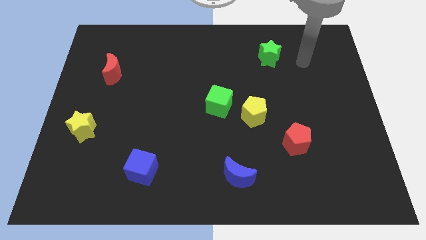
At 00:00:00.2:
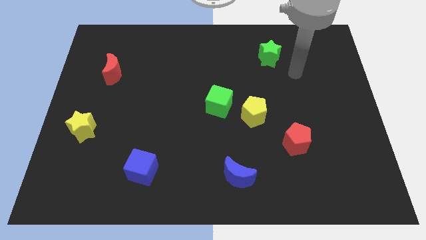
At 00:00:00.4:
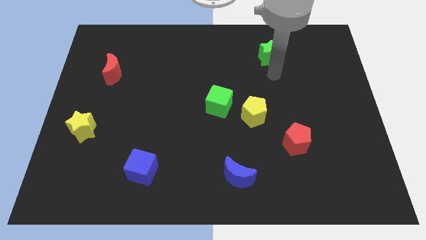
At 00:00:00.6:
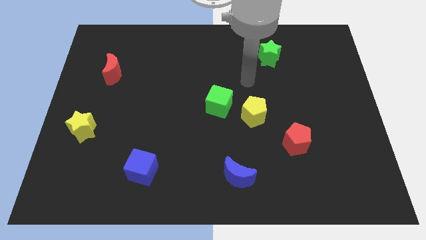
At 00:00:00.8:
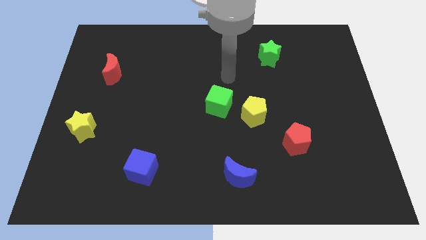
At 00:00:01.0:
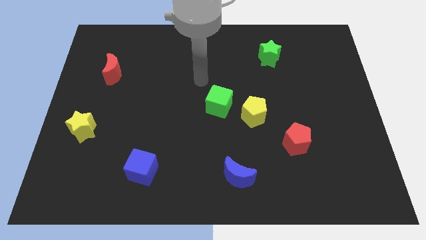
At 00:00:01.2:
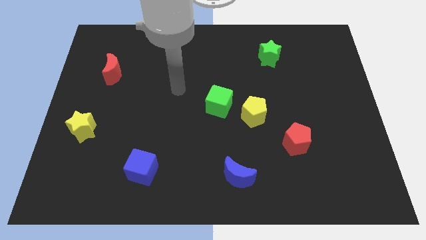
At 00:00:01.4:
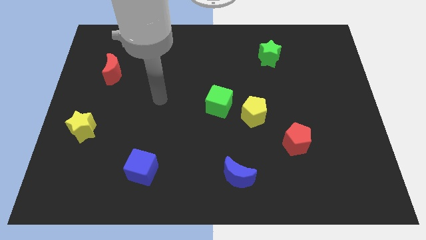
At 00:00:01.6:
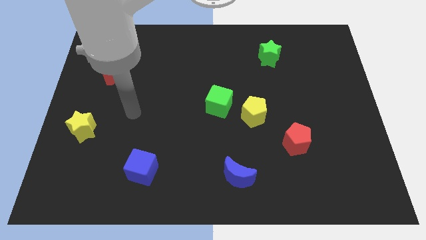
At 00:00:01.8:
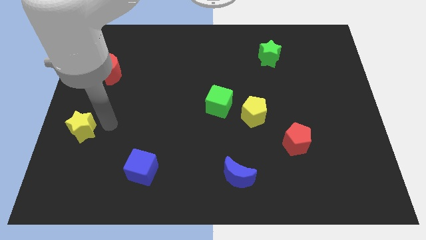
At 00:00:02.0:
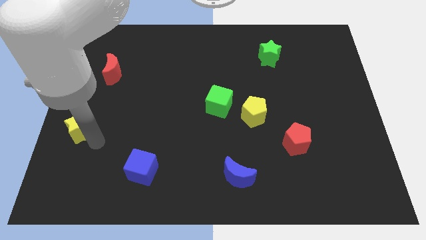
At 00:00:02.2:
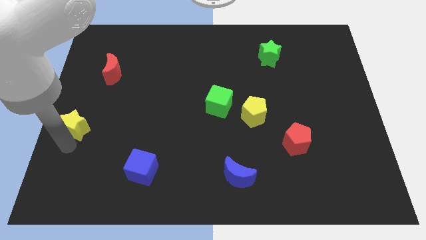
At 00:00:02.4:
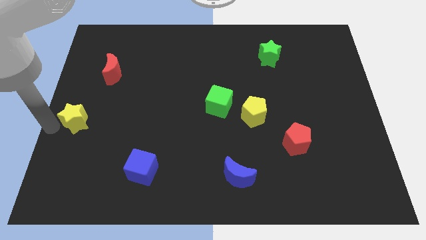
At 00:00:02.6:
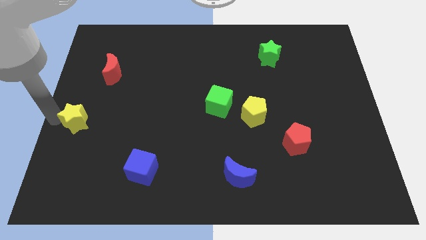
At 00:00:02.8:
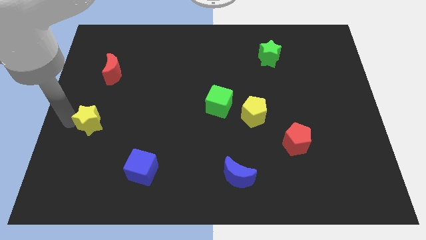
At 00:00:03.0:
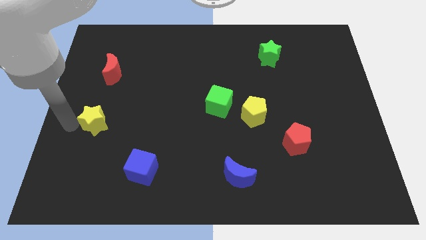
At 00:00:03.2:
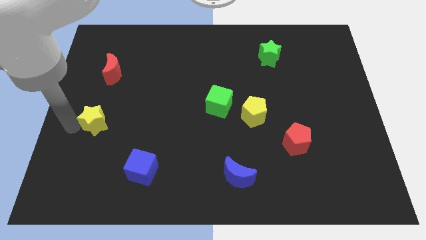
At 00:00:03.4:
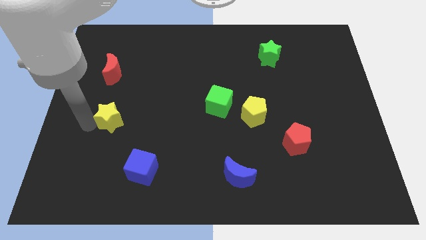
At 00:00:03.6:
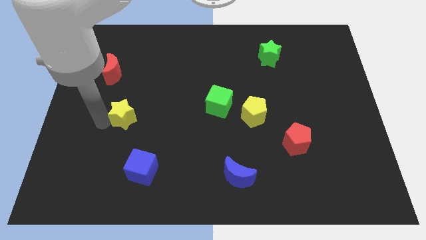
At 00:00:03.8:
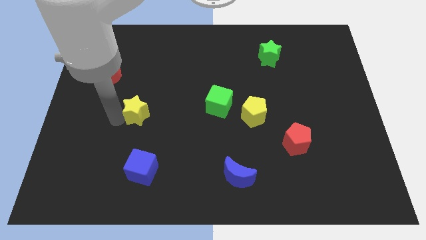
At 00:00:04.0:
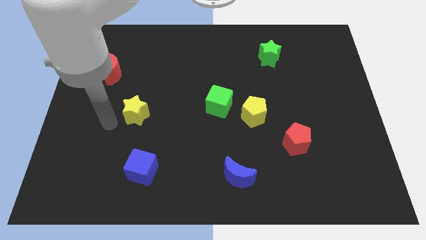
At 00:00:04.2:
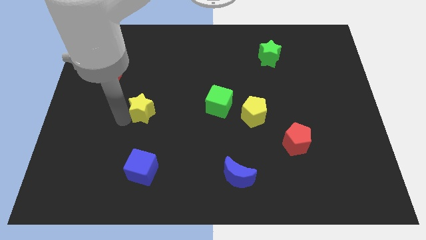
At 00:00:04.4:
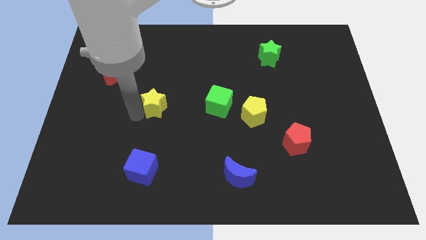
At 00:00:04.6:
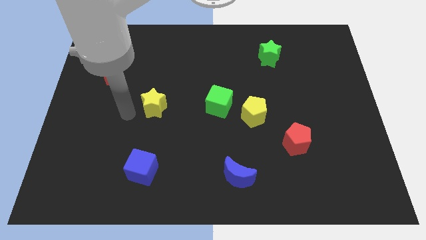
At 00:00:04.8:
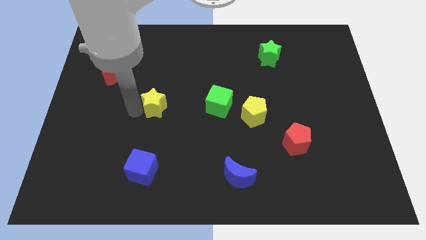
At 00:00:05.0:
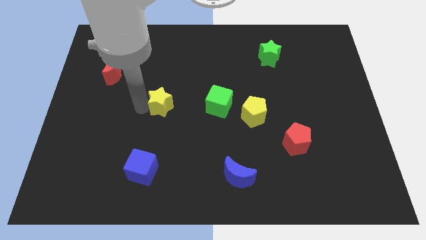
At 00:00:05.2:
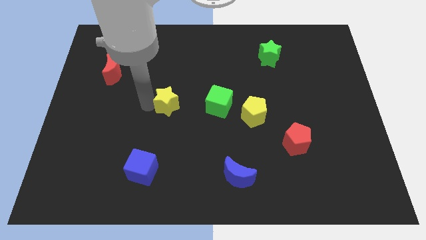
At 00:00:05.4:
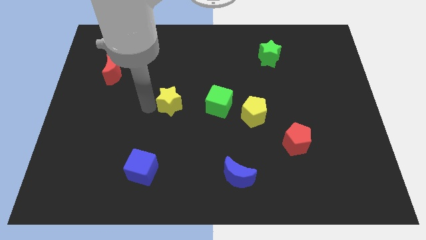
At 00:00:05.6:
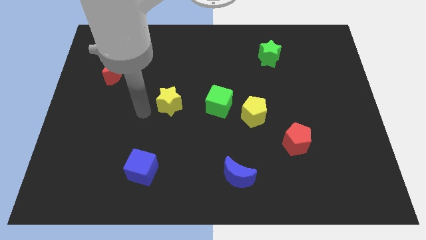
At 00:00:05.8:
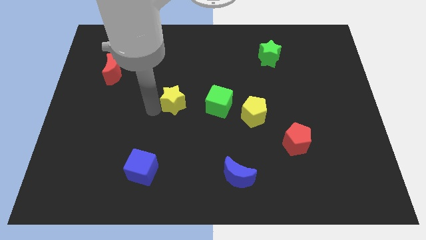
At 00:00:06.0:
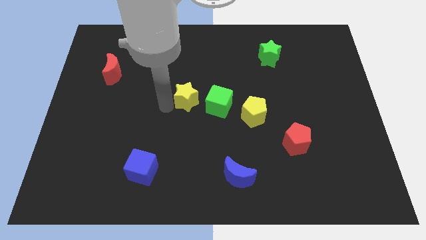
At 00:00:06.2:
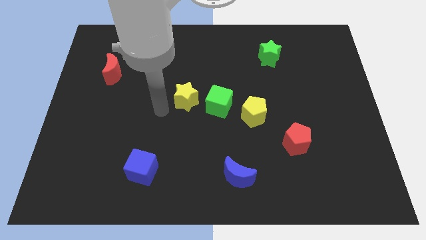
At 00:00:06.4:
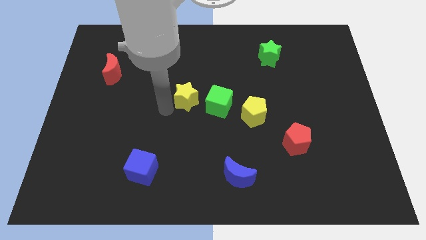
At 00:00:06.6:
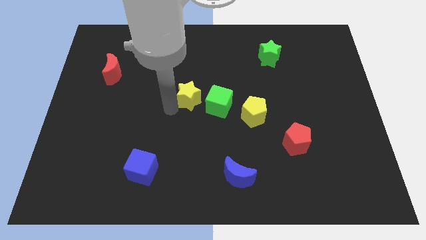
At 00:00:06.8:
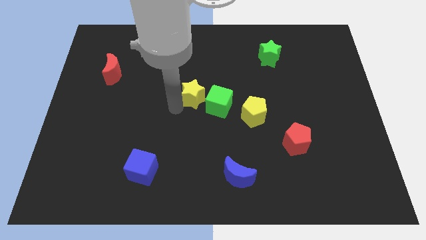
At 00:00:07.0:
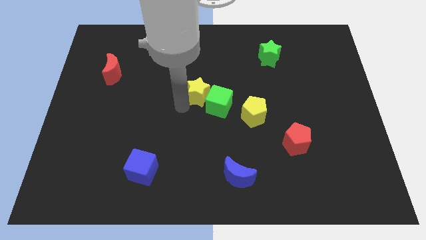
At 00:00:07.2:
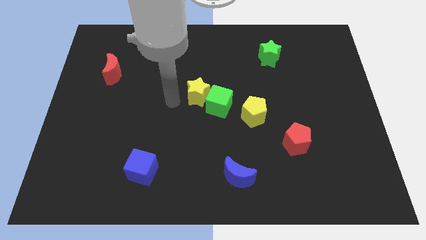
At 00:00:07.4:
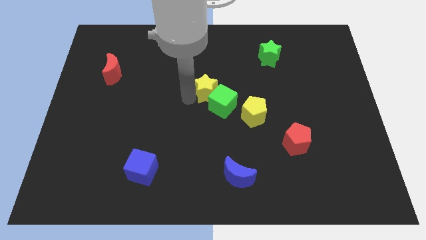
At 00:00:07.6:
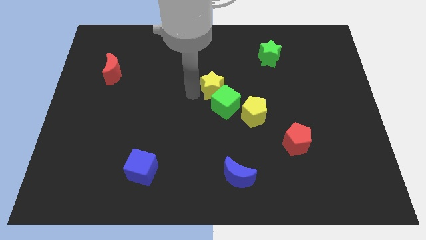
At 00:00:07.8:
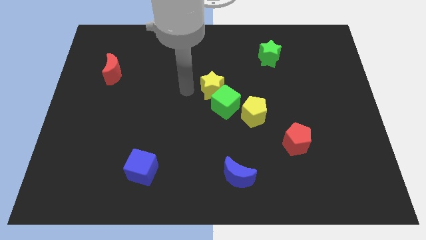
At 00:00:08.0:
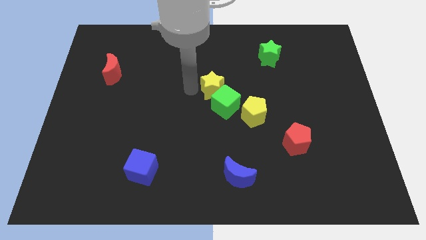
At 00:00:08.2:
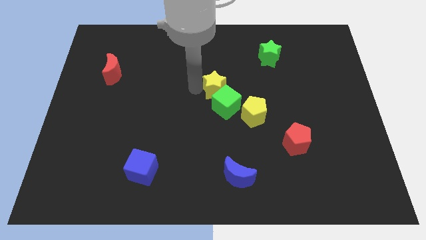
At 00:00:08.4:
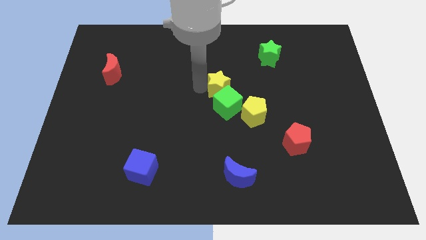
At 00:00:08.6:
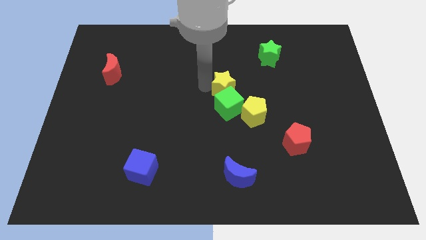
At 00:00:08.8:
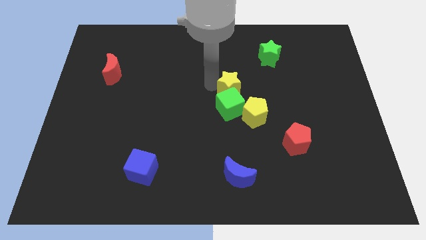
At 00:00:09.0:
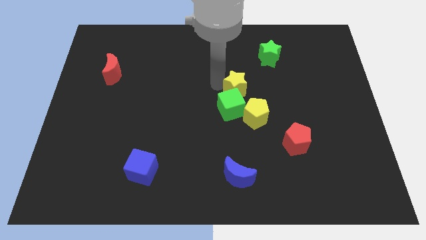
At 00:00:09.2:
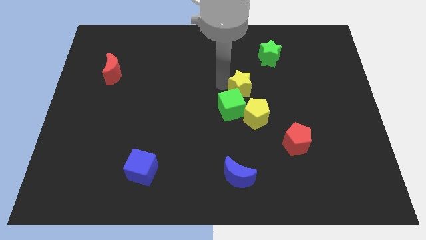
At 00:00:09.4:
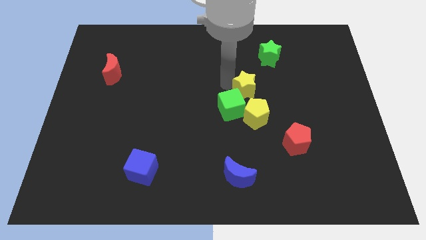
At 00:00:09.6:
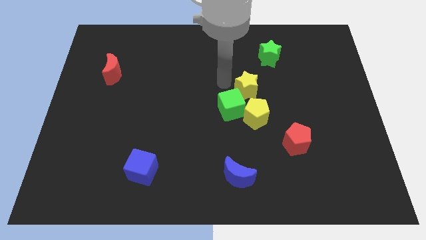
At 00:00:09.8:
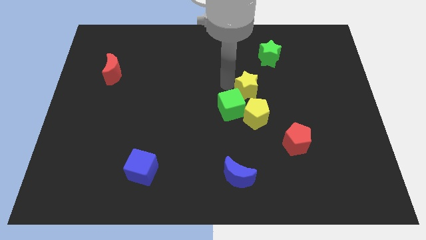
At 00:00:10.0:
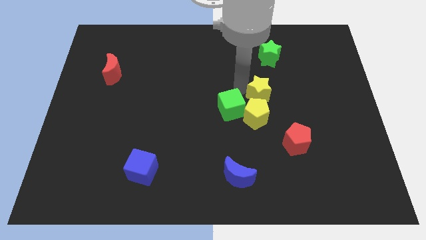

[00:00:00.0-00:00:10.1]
move the yellow star diagonally up and to the right of the yellow pentagon

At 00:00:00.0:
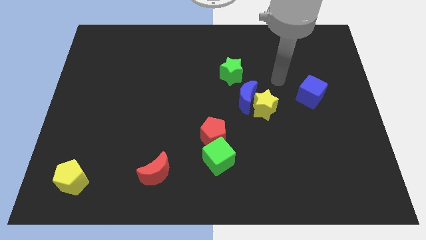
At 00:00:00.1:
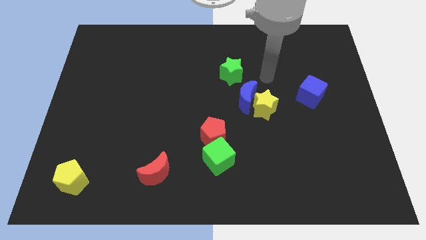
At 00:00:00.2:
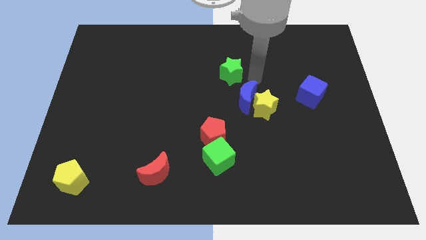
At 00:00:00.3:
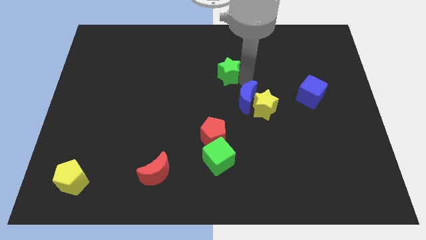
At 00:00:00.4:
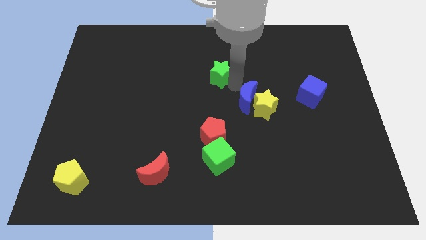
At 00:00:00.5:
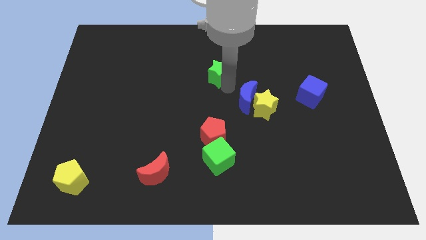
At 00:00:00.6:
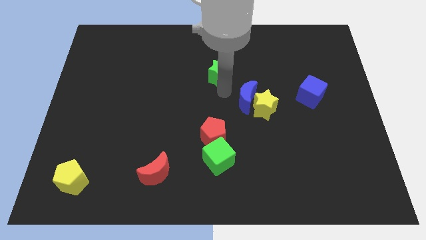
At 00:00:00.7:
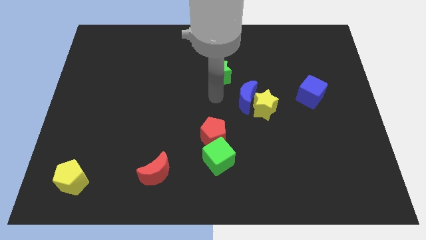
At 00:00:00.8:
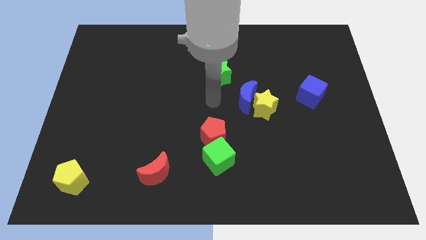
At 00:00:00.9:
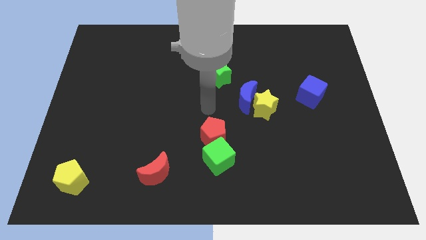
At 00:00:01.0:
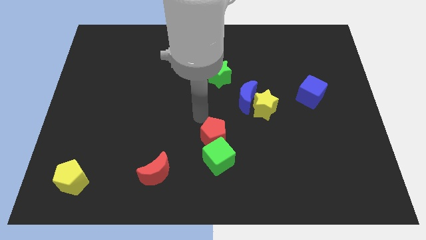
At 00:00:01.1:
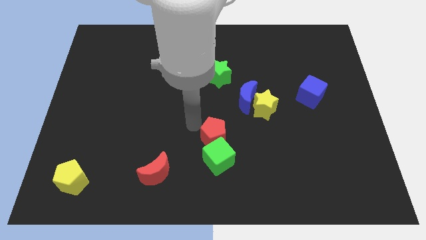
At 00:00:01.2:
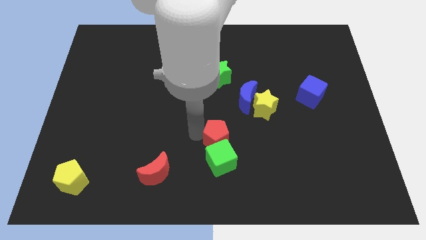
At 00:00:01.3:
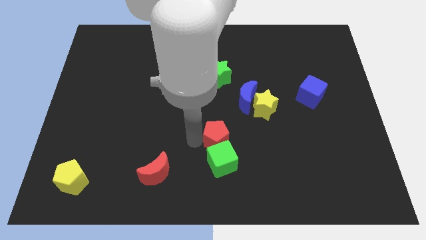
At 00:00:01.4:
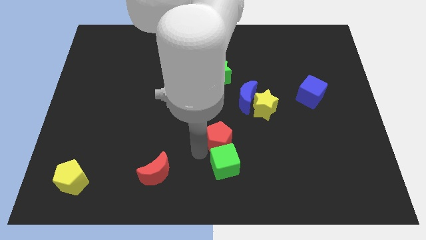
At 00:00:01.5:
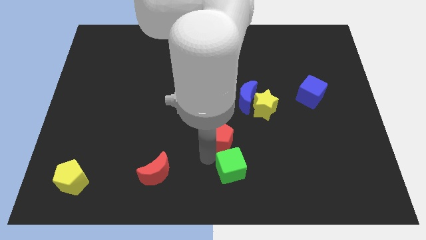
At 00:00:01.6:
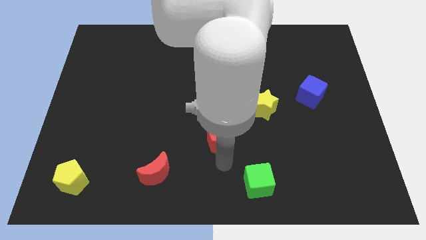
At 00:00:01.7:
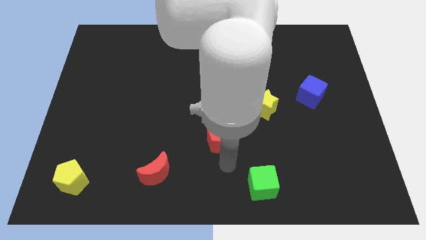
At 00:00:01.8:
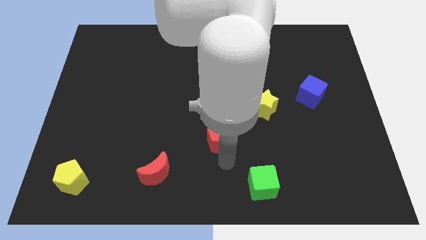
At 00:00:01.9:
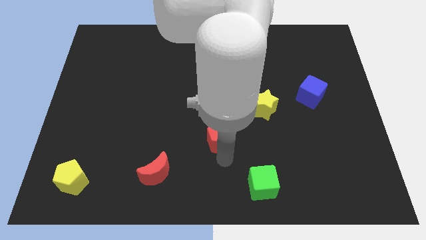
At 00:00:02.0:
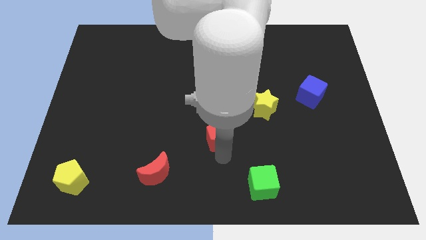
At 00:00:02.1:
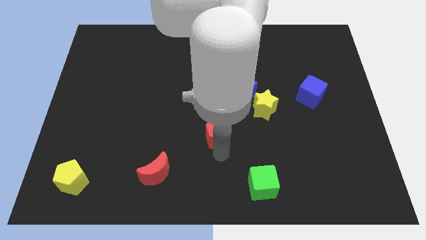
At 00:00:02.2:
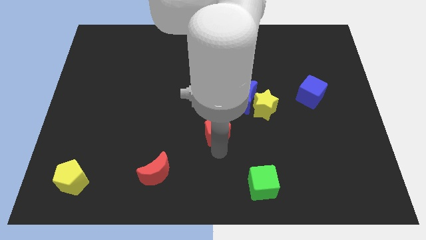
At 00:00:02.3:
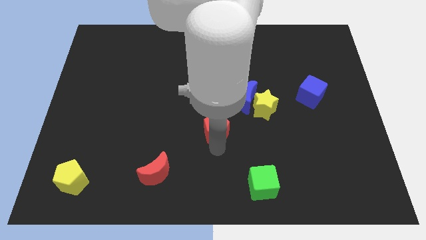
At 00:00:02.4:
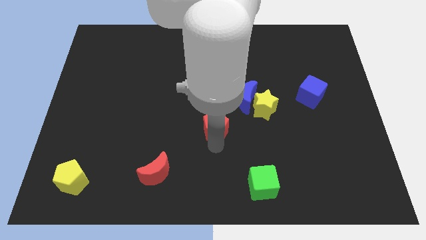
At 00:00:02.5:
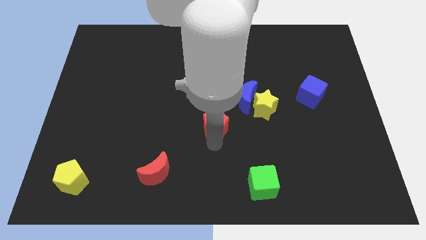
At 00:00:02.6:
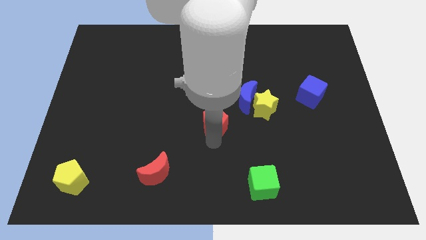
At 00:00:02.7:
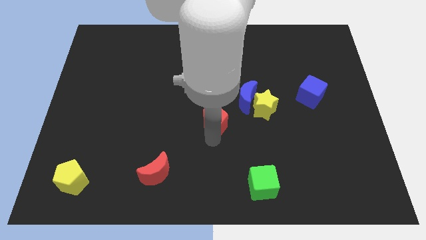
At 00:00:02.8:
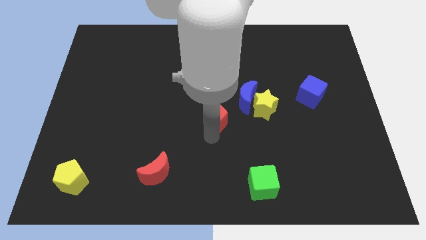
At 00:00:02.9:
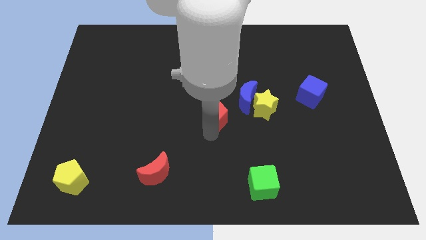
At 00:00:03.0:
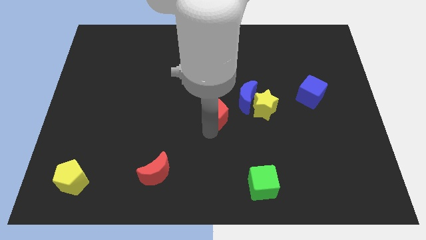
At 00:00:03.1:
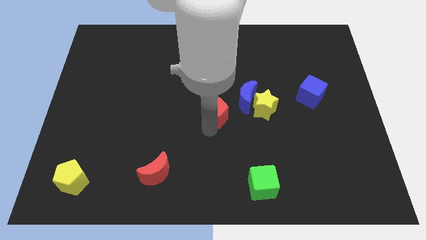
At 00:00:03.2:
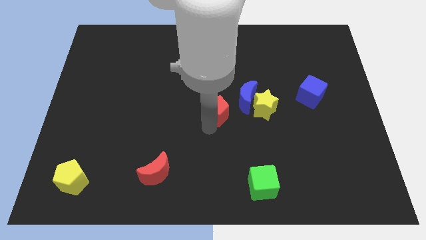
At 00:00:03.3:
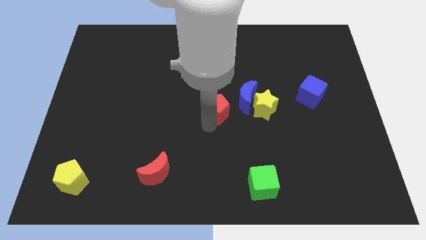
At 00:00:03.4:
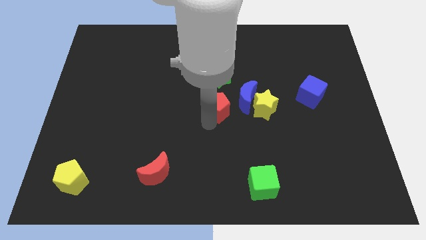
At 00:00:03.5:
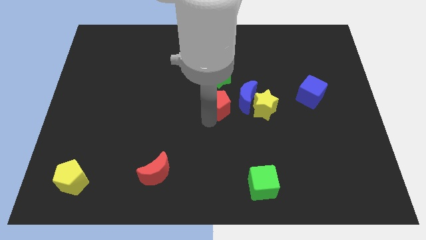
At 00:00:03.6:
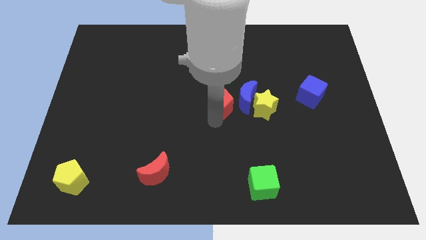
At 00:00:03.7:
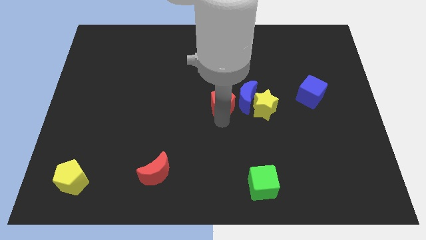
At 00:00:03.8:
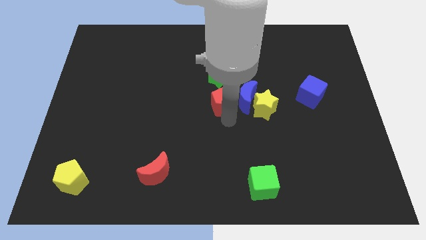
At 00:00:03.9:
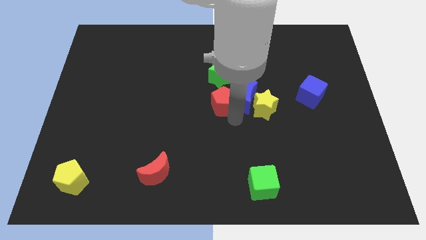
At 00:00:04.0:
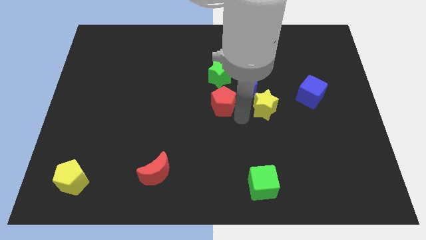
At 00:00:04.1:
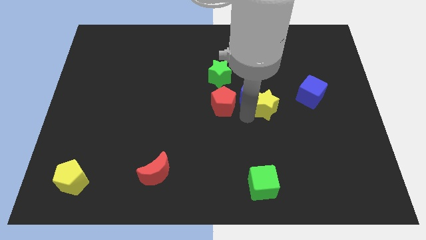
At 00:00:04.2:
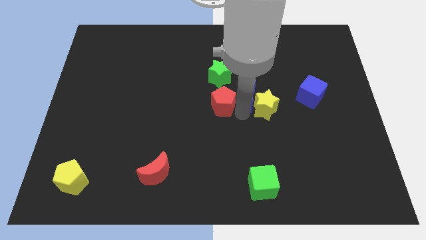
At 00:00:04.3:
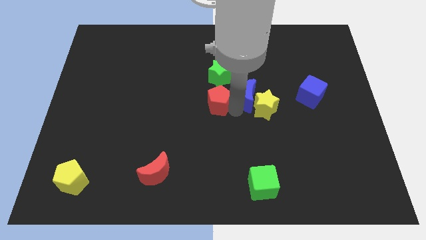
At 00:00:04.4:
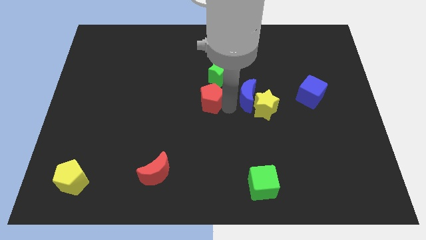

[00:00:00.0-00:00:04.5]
move the red pentagon to the bottom left of the green star
